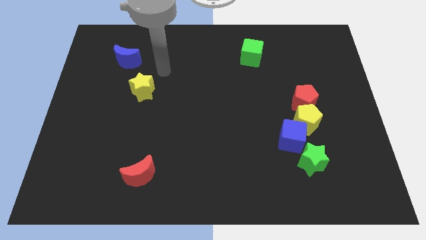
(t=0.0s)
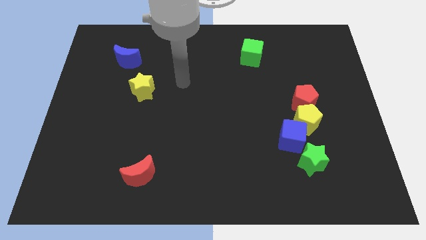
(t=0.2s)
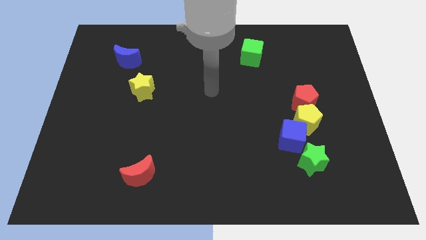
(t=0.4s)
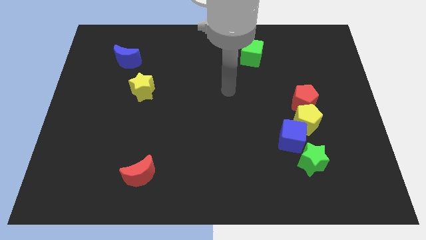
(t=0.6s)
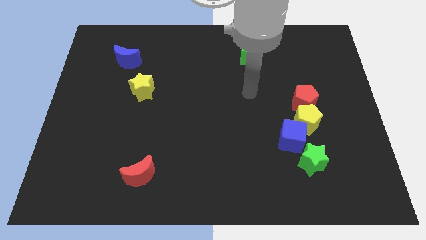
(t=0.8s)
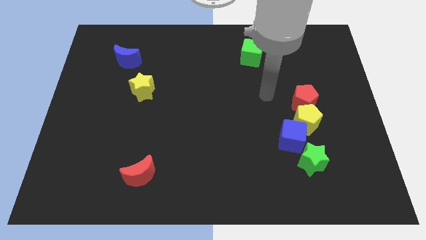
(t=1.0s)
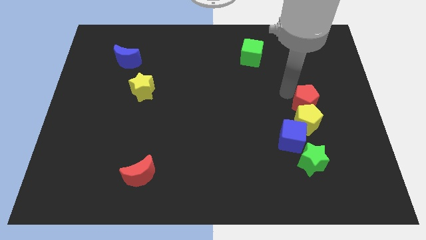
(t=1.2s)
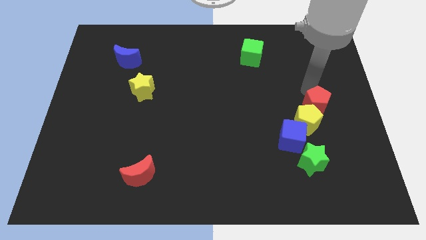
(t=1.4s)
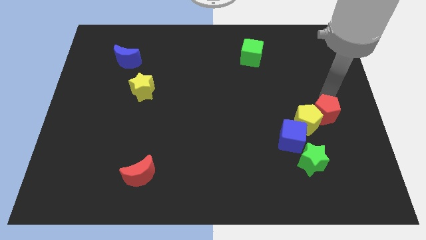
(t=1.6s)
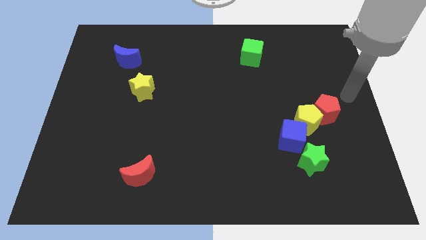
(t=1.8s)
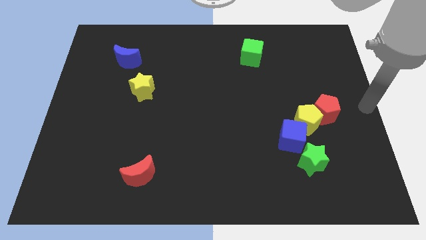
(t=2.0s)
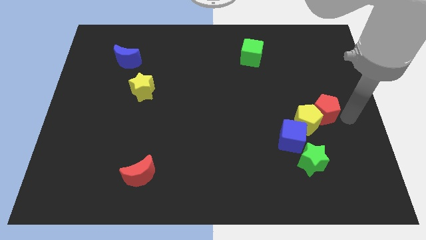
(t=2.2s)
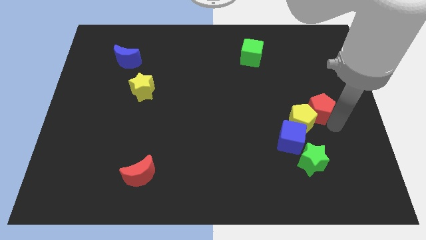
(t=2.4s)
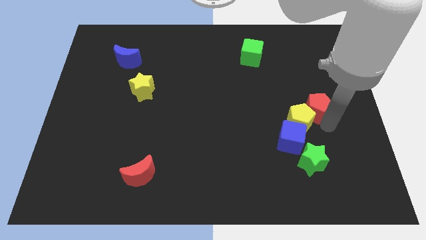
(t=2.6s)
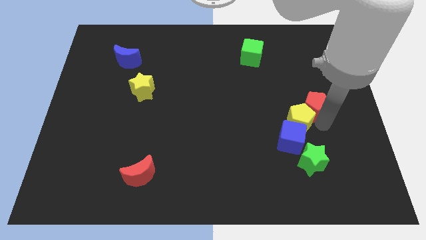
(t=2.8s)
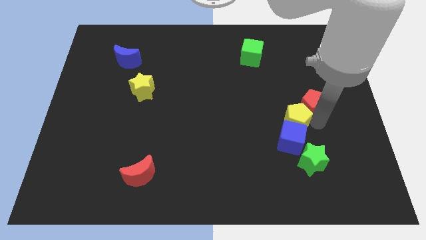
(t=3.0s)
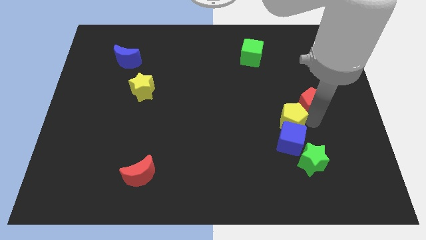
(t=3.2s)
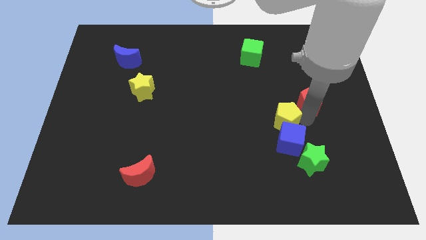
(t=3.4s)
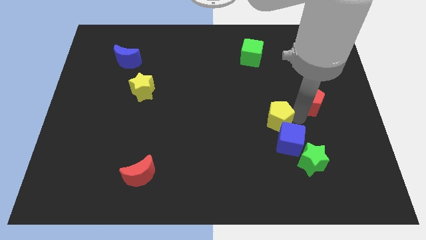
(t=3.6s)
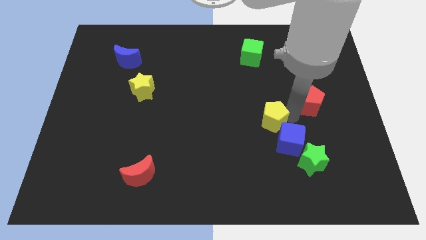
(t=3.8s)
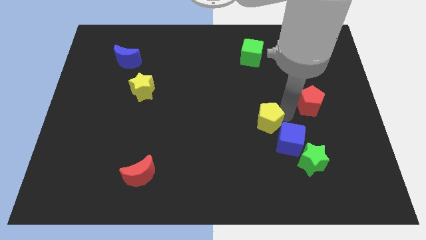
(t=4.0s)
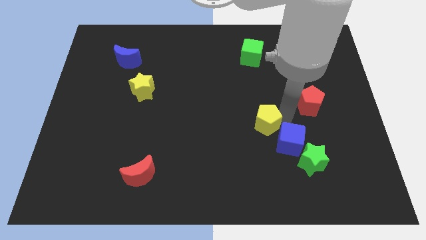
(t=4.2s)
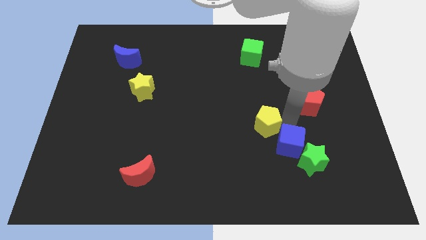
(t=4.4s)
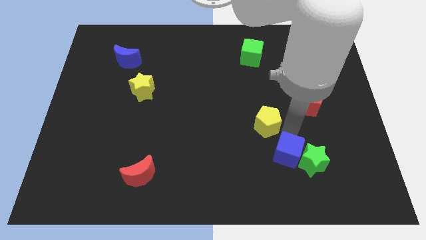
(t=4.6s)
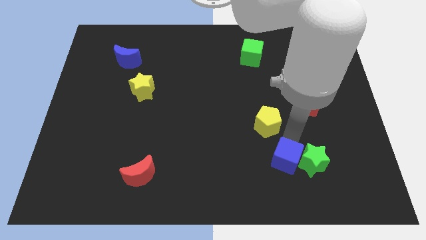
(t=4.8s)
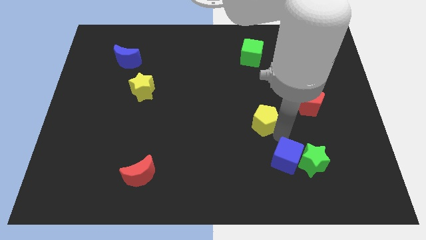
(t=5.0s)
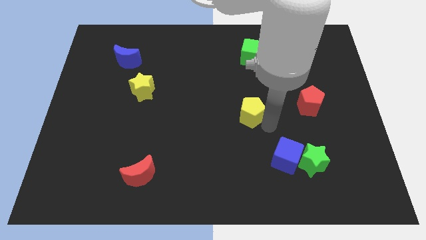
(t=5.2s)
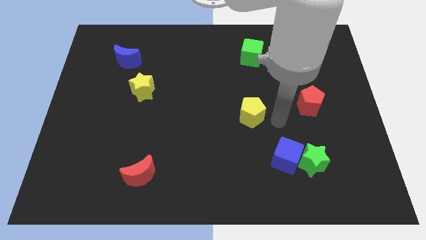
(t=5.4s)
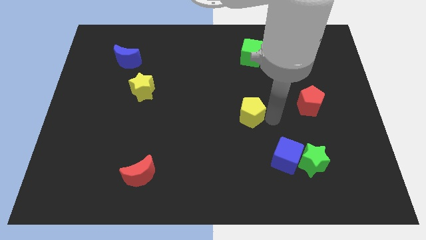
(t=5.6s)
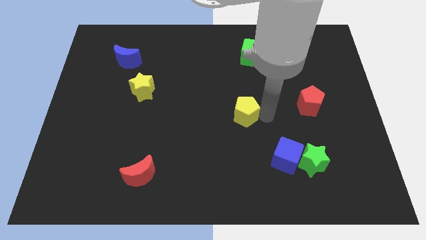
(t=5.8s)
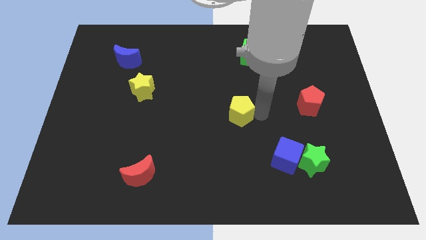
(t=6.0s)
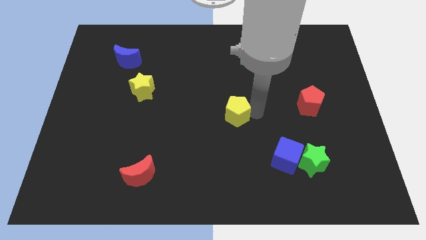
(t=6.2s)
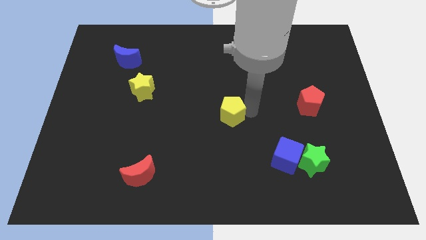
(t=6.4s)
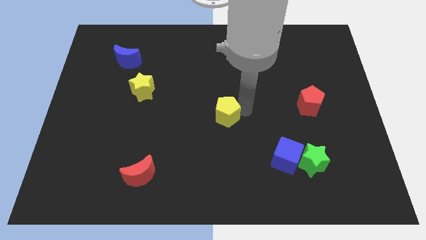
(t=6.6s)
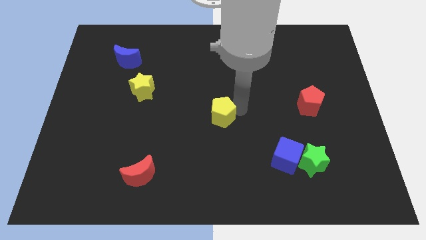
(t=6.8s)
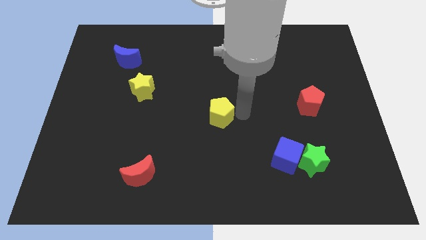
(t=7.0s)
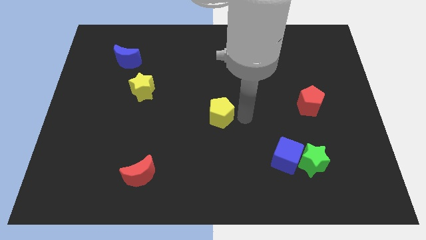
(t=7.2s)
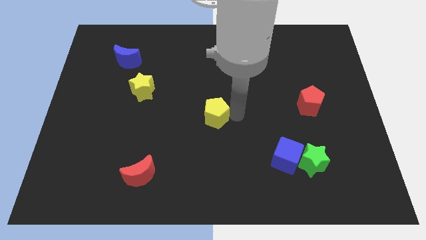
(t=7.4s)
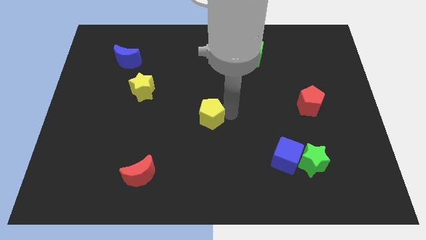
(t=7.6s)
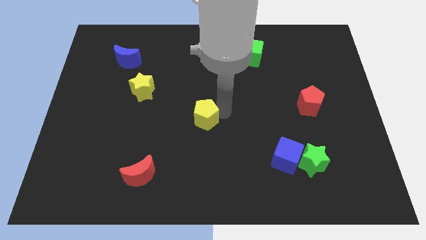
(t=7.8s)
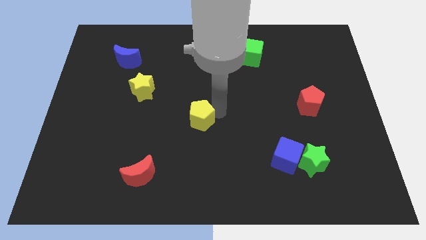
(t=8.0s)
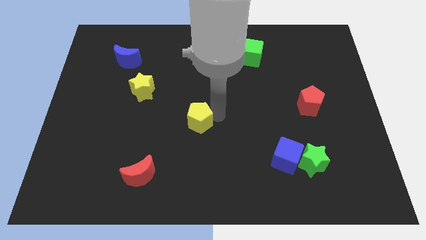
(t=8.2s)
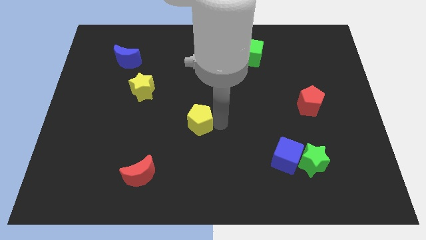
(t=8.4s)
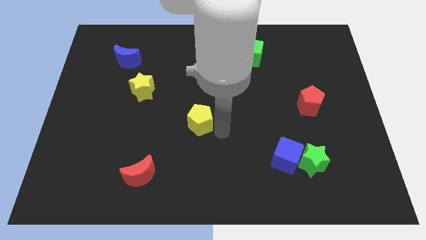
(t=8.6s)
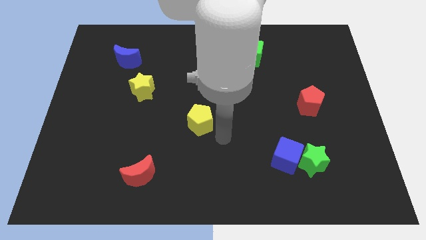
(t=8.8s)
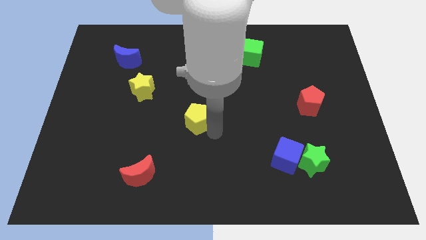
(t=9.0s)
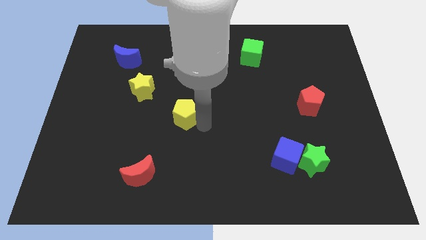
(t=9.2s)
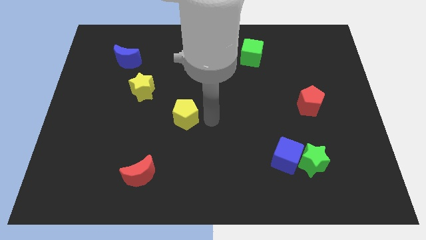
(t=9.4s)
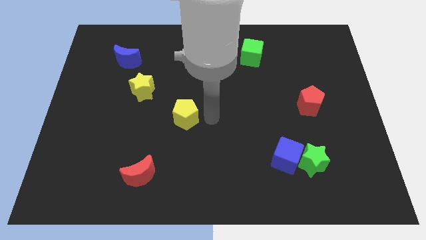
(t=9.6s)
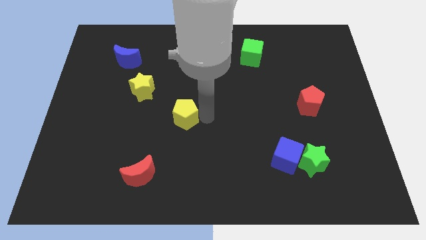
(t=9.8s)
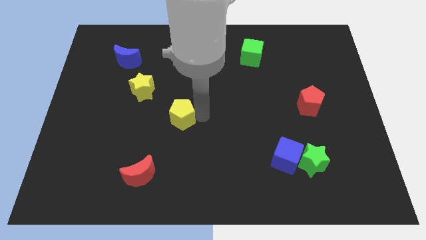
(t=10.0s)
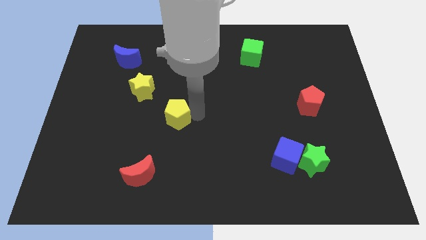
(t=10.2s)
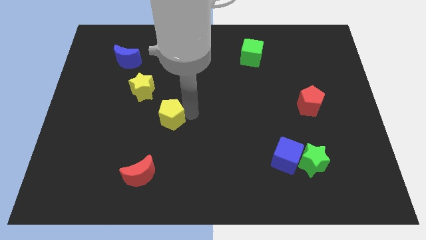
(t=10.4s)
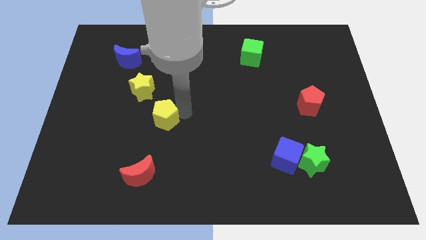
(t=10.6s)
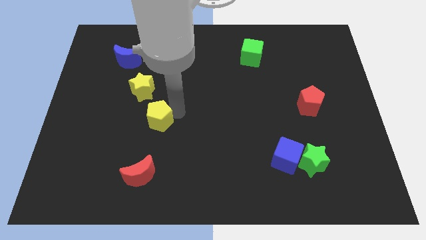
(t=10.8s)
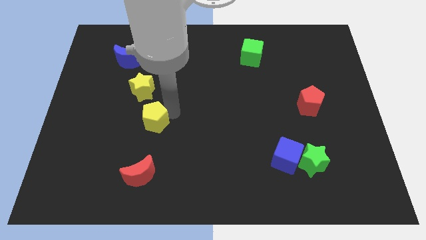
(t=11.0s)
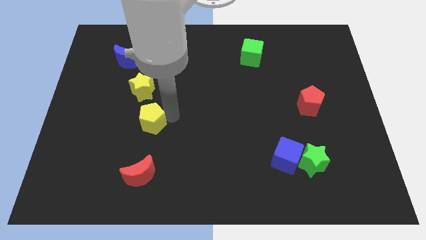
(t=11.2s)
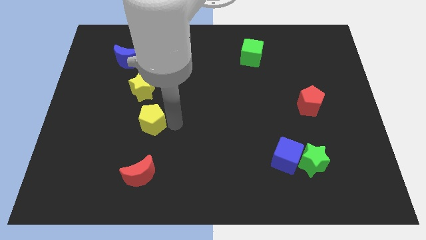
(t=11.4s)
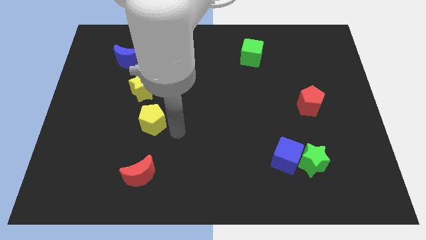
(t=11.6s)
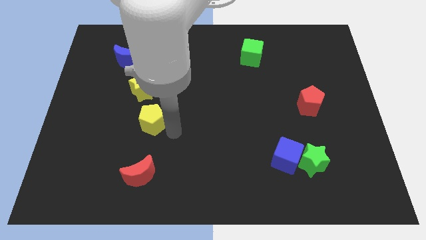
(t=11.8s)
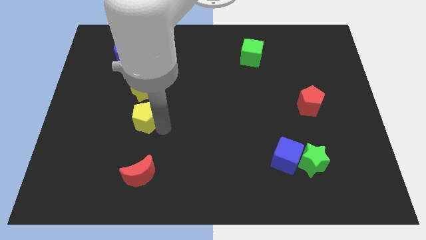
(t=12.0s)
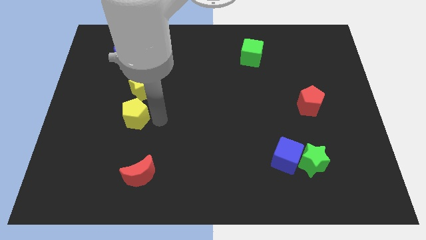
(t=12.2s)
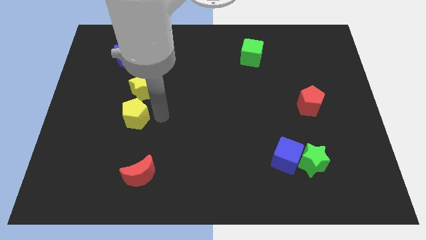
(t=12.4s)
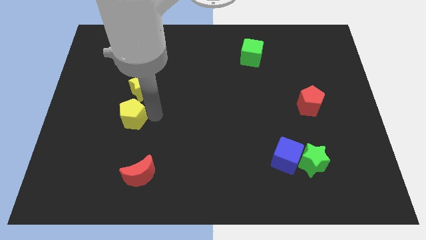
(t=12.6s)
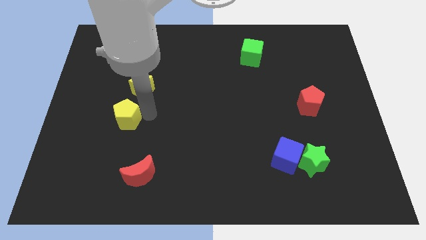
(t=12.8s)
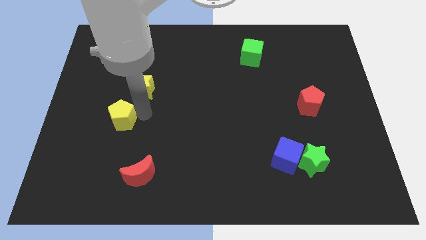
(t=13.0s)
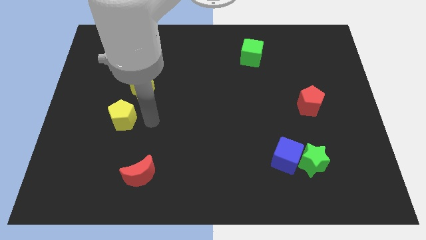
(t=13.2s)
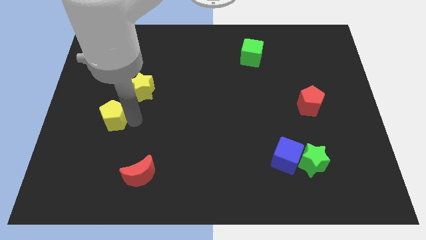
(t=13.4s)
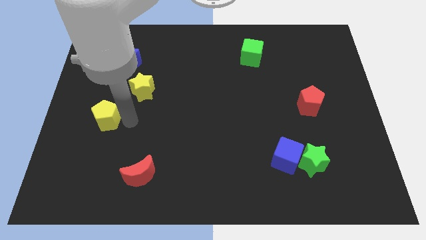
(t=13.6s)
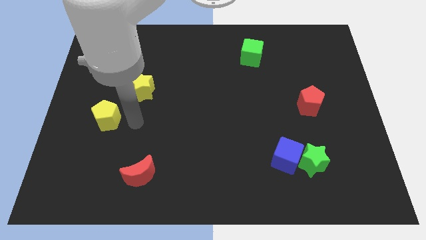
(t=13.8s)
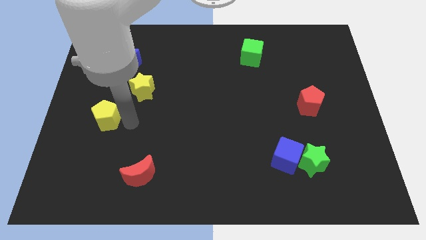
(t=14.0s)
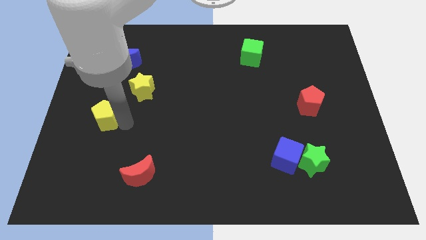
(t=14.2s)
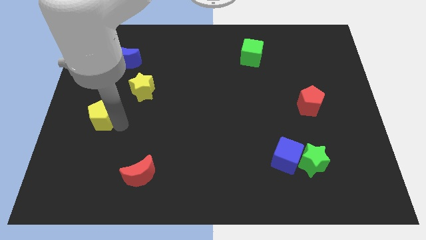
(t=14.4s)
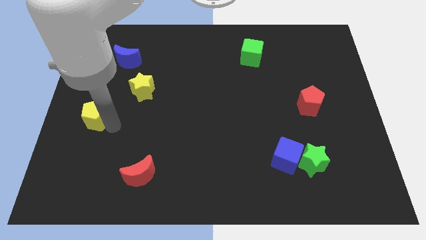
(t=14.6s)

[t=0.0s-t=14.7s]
put the yellow pentagon to the left side
